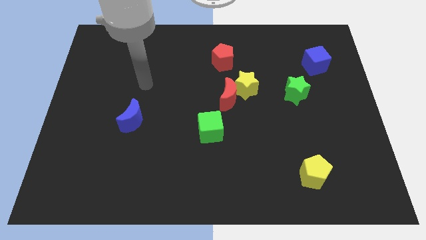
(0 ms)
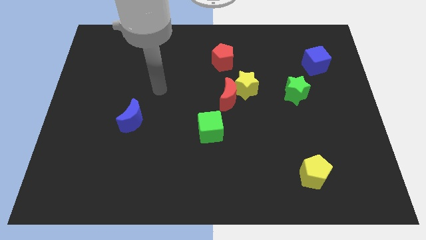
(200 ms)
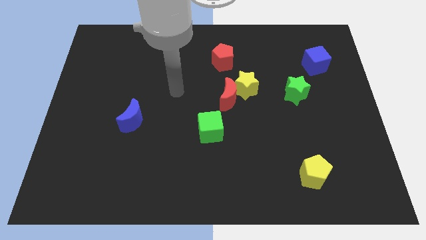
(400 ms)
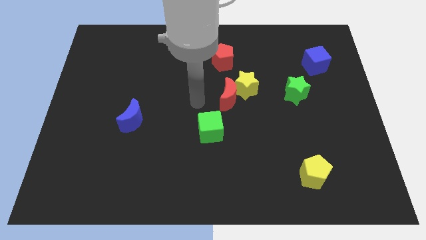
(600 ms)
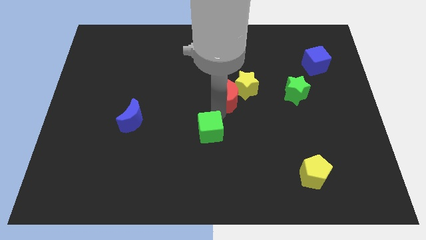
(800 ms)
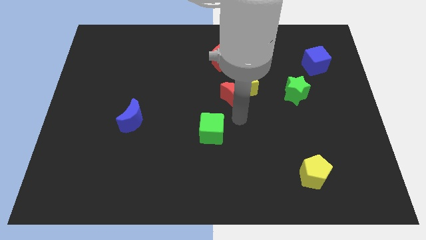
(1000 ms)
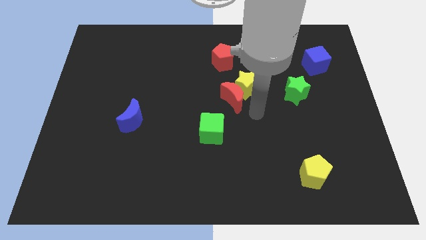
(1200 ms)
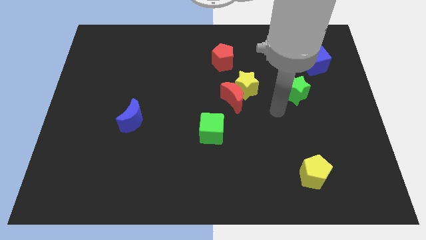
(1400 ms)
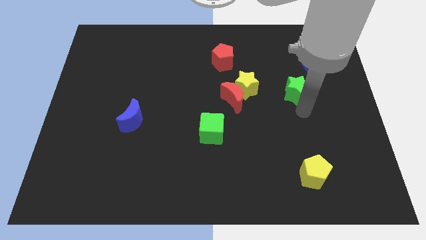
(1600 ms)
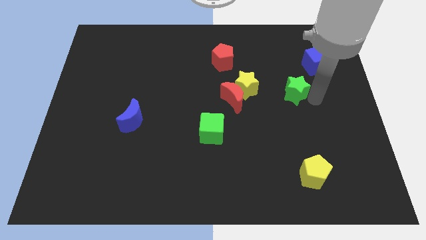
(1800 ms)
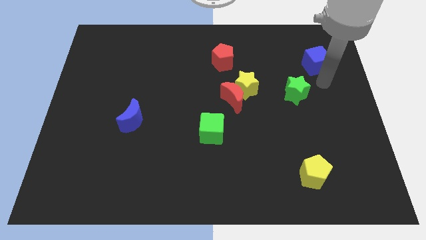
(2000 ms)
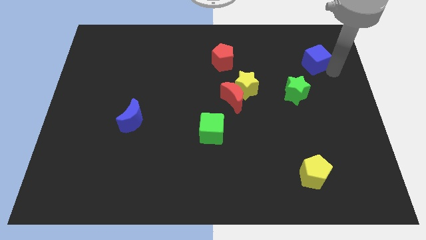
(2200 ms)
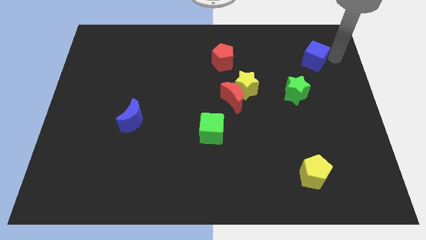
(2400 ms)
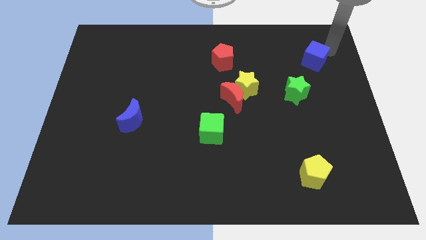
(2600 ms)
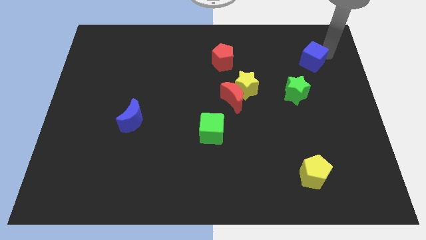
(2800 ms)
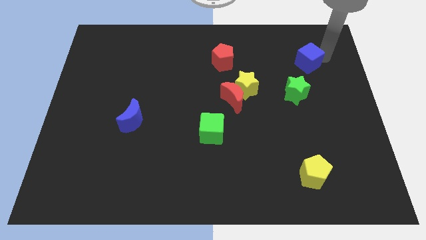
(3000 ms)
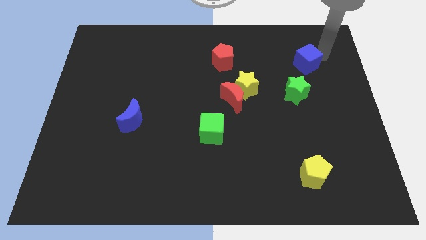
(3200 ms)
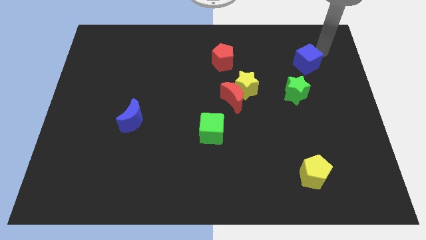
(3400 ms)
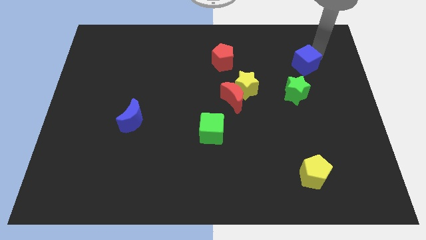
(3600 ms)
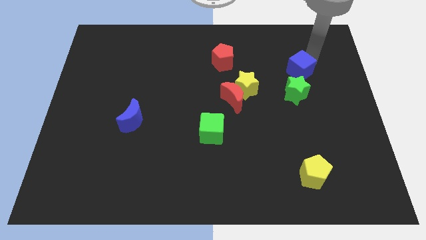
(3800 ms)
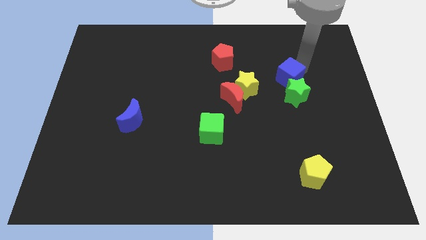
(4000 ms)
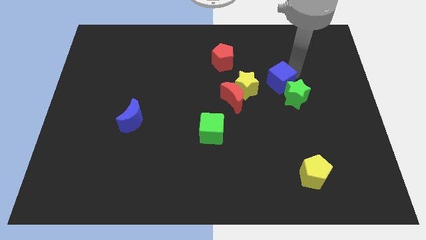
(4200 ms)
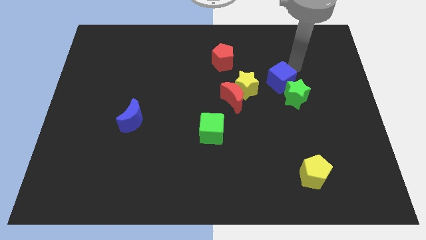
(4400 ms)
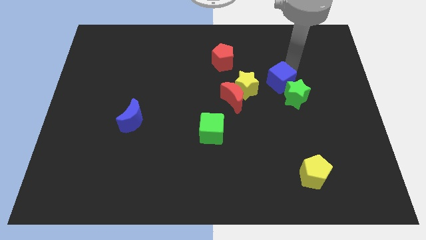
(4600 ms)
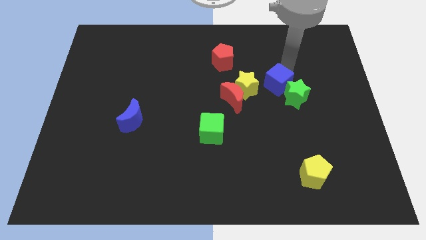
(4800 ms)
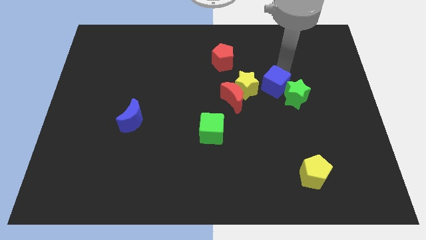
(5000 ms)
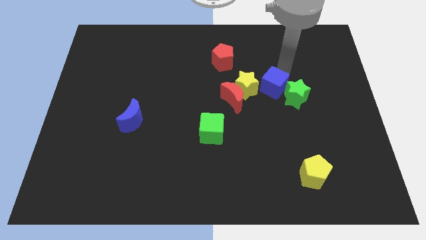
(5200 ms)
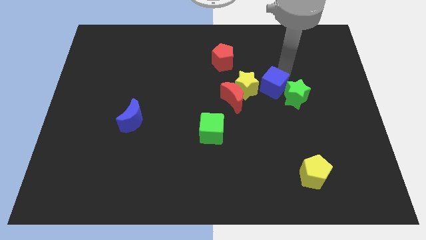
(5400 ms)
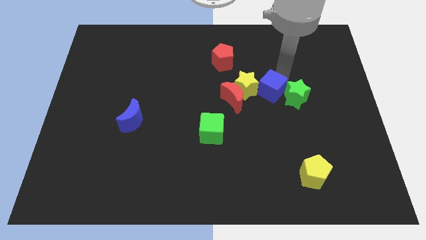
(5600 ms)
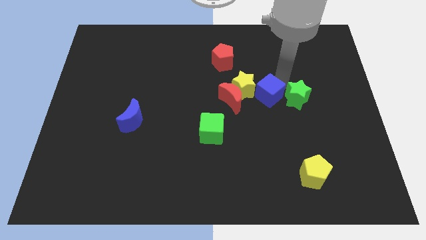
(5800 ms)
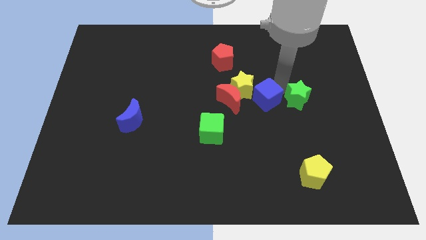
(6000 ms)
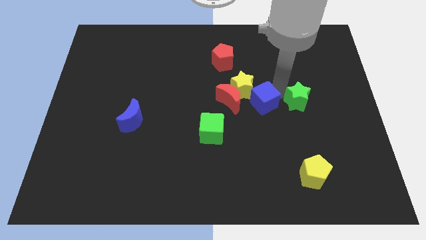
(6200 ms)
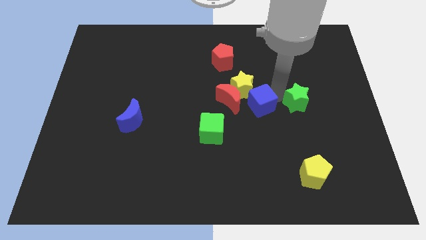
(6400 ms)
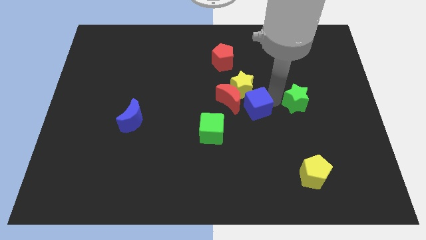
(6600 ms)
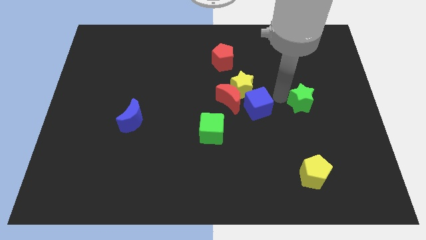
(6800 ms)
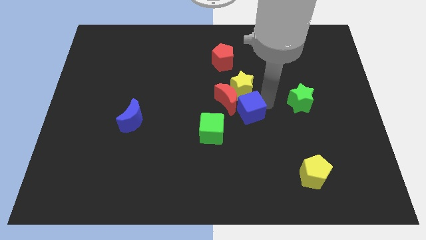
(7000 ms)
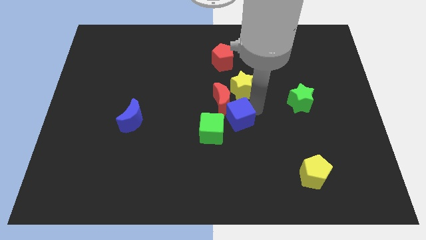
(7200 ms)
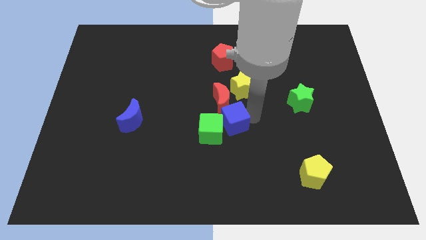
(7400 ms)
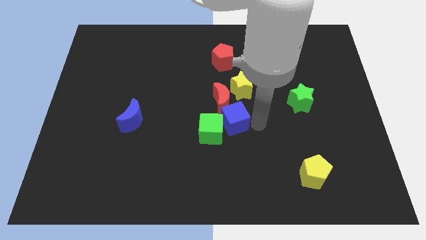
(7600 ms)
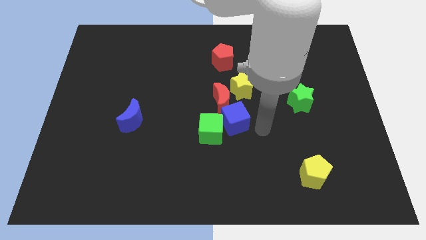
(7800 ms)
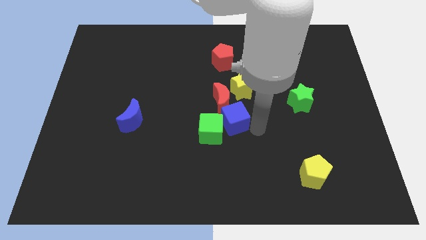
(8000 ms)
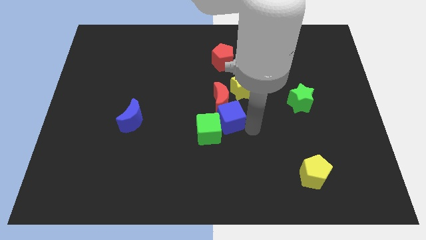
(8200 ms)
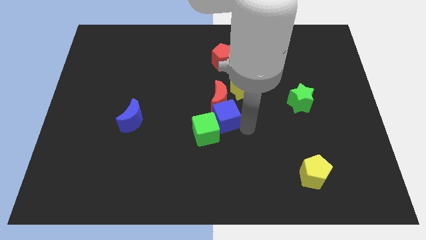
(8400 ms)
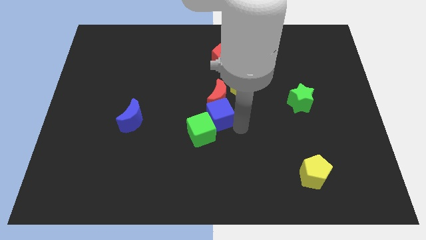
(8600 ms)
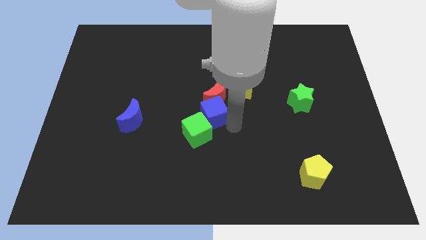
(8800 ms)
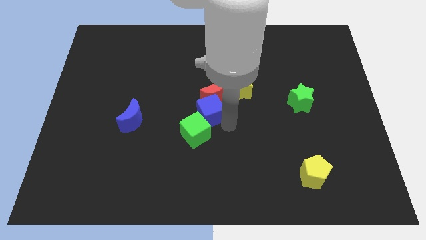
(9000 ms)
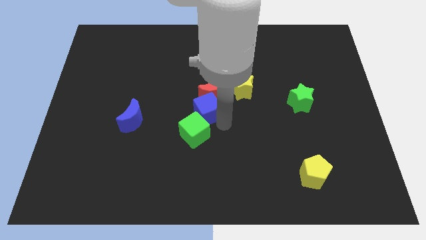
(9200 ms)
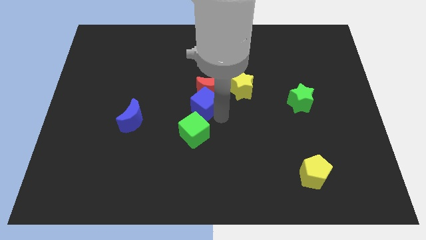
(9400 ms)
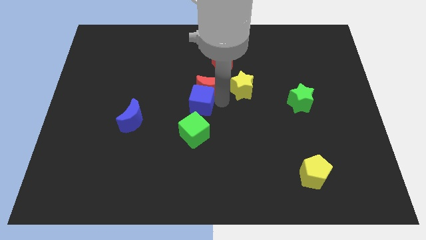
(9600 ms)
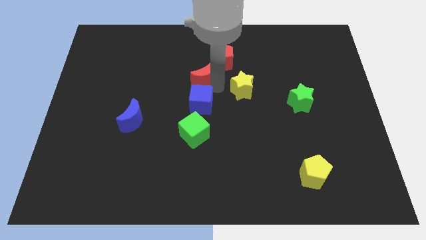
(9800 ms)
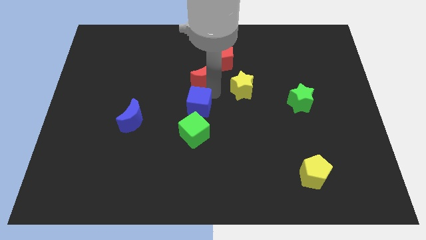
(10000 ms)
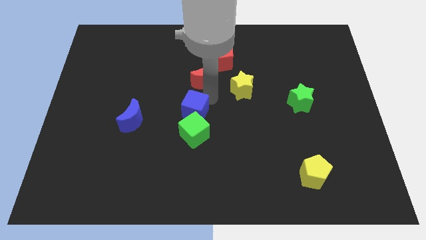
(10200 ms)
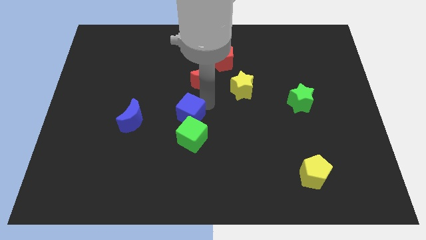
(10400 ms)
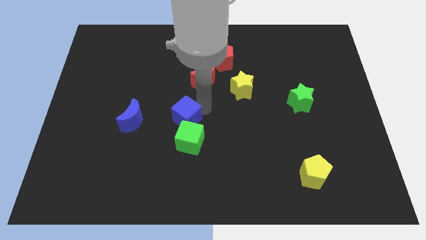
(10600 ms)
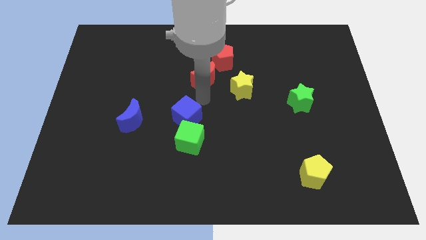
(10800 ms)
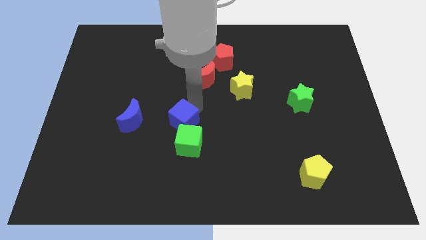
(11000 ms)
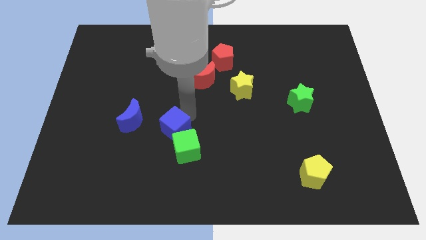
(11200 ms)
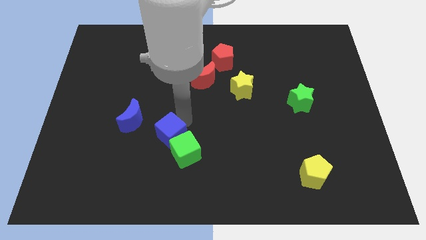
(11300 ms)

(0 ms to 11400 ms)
push the blue cube to the bottom right side of the blue moon
